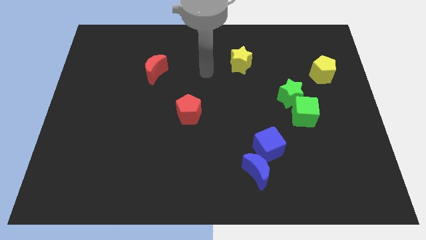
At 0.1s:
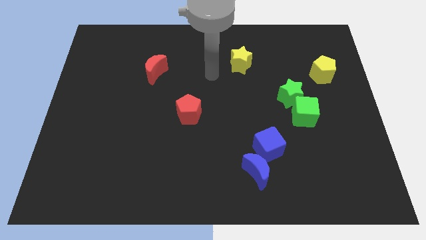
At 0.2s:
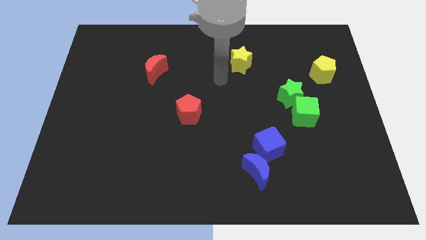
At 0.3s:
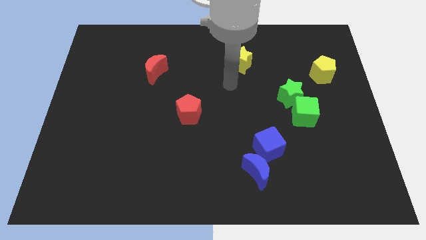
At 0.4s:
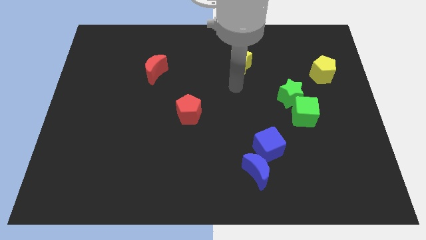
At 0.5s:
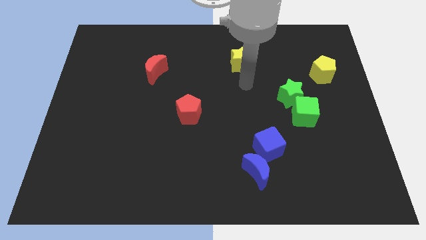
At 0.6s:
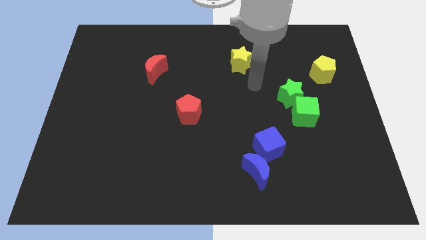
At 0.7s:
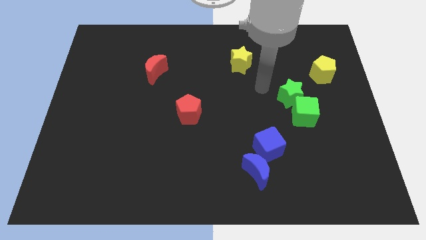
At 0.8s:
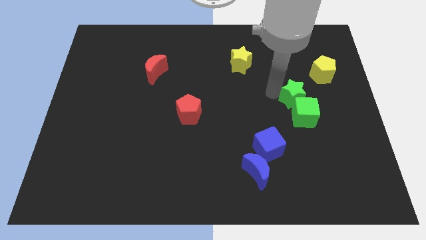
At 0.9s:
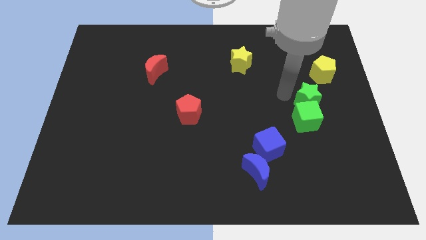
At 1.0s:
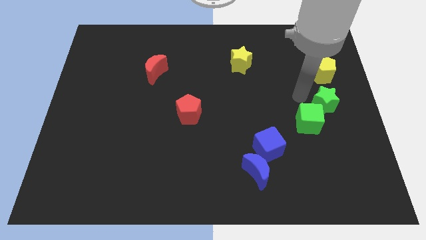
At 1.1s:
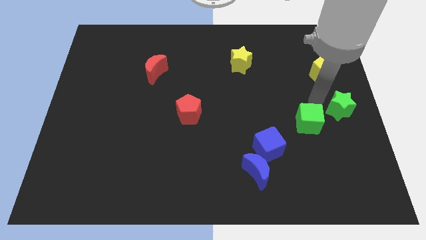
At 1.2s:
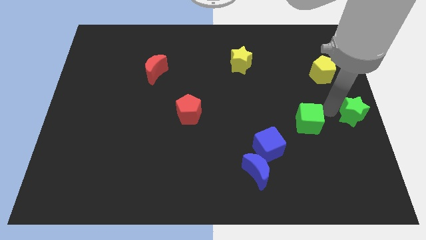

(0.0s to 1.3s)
separate the green cube from the green star

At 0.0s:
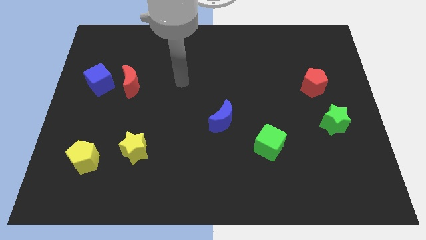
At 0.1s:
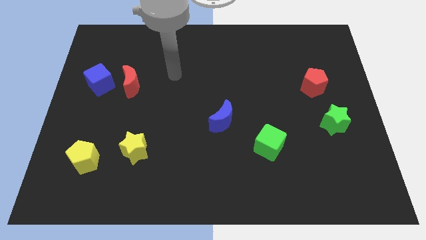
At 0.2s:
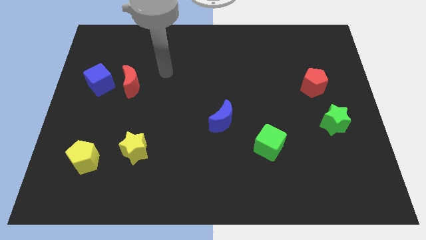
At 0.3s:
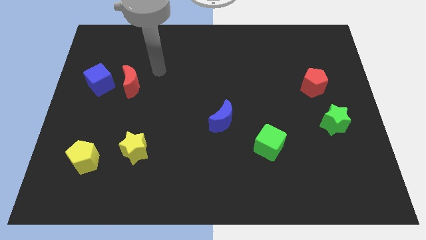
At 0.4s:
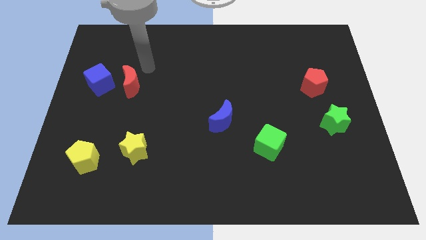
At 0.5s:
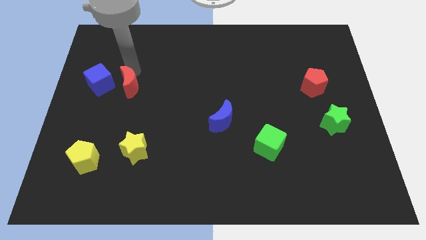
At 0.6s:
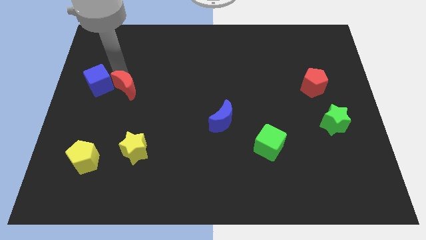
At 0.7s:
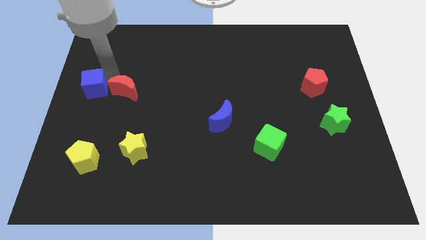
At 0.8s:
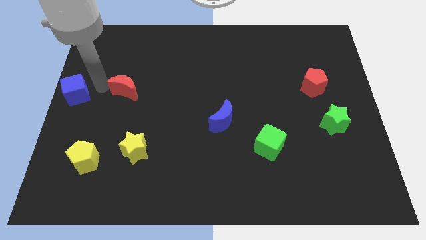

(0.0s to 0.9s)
pull the red moon apart from the blue cube

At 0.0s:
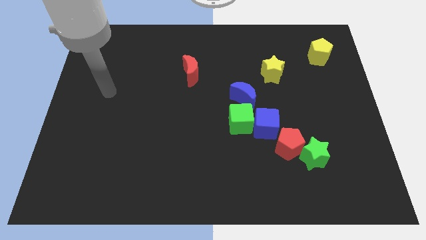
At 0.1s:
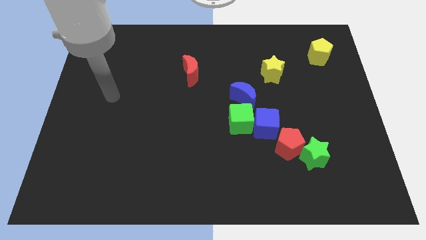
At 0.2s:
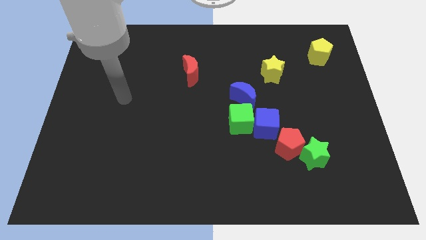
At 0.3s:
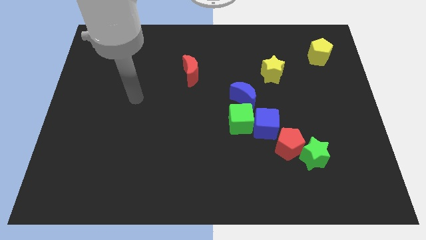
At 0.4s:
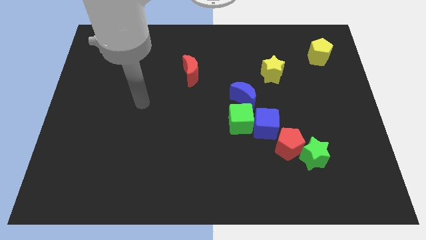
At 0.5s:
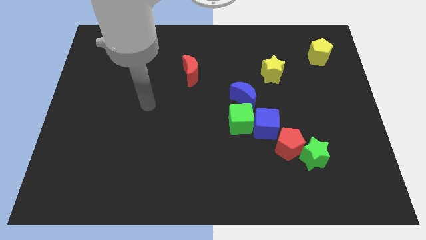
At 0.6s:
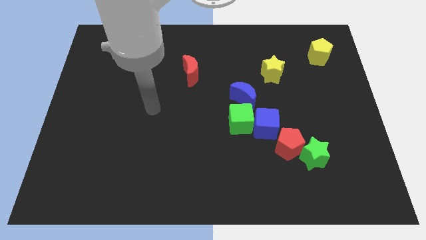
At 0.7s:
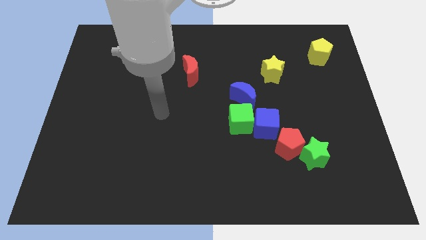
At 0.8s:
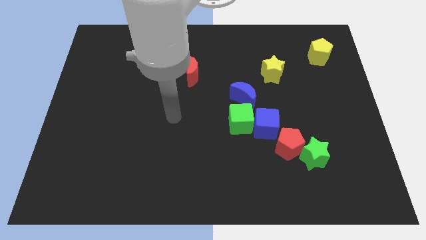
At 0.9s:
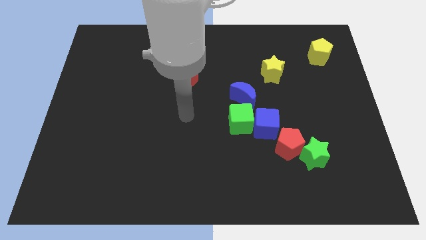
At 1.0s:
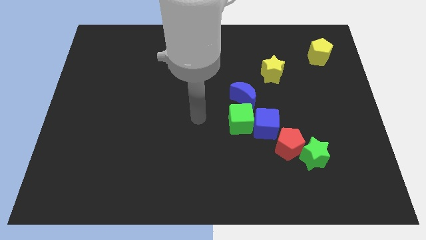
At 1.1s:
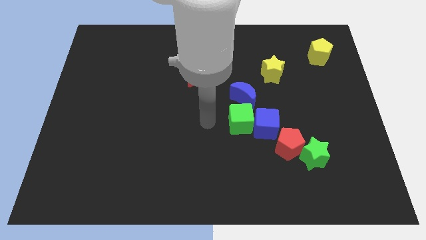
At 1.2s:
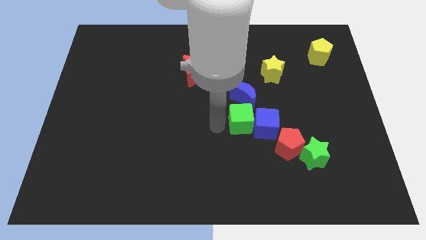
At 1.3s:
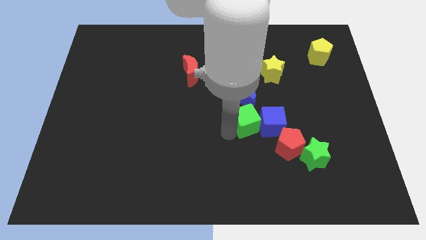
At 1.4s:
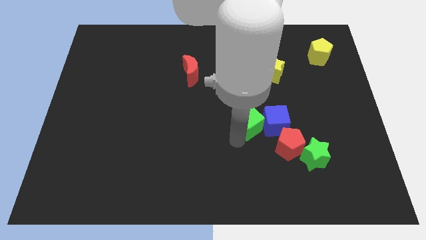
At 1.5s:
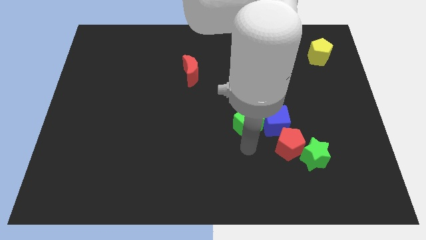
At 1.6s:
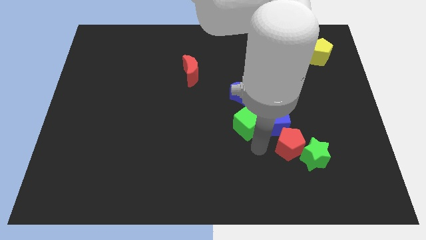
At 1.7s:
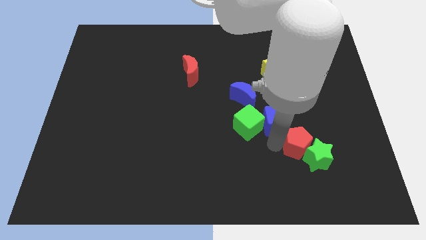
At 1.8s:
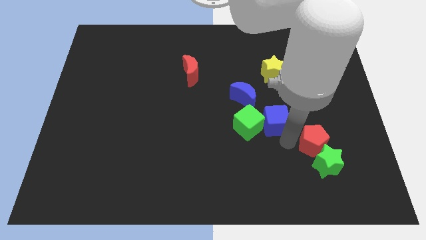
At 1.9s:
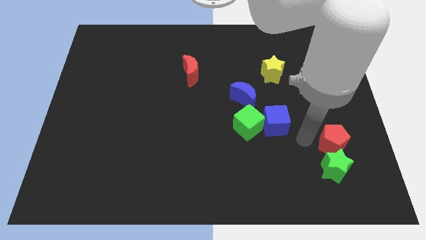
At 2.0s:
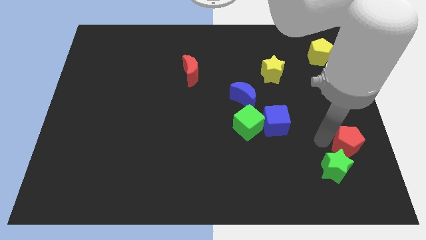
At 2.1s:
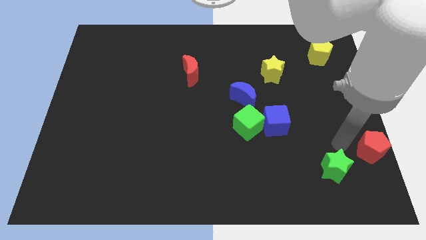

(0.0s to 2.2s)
separate the green star from the red pentagon

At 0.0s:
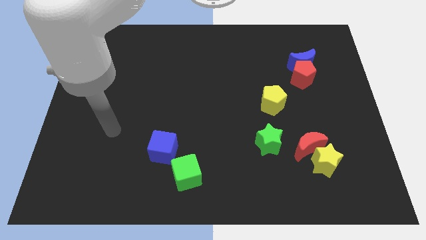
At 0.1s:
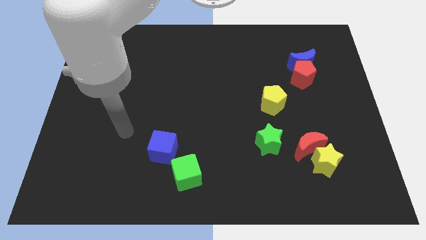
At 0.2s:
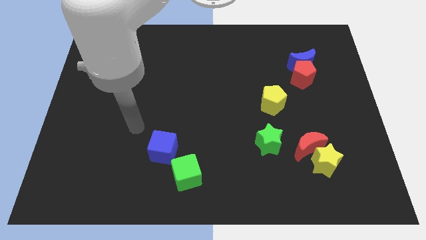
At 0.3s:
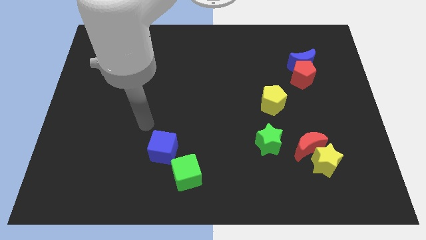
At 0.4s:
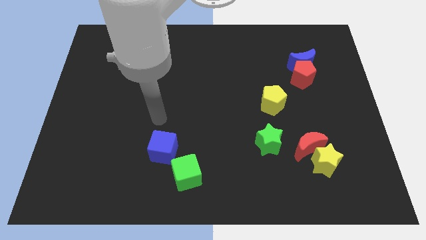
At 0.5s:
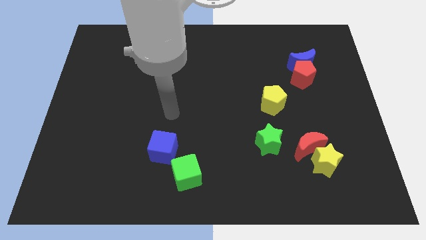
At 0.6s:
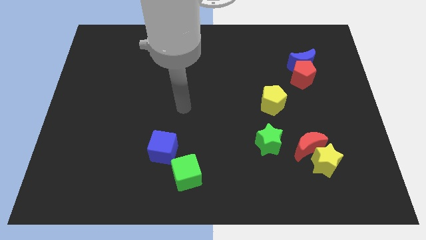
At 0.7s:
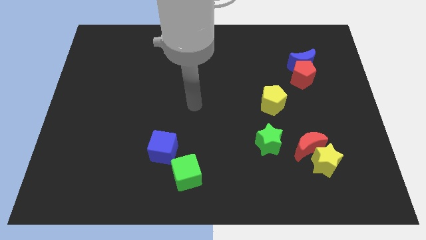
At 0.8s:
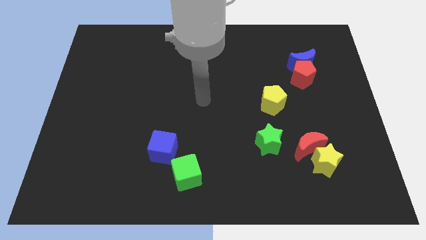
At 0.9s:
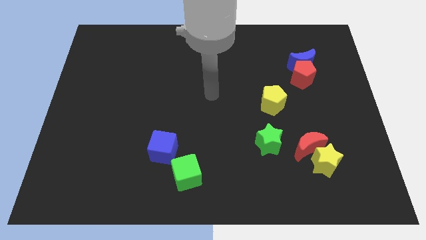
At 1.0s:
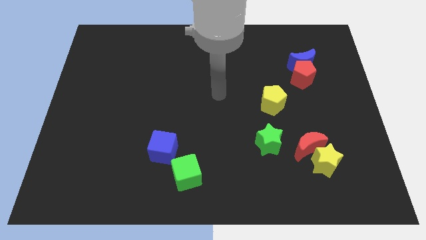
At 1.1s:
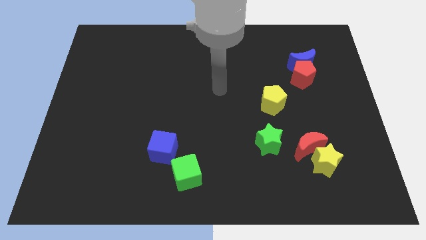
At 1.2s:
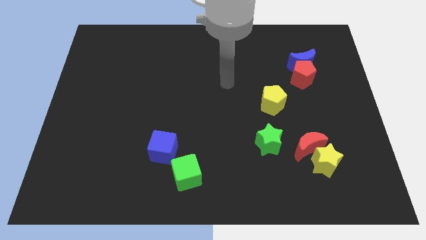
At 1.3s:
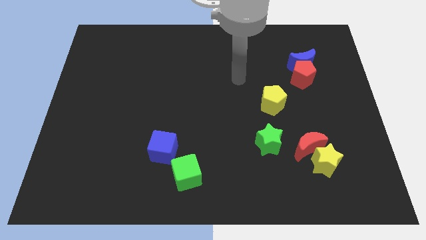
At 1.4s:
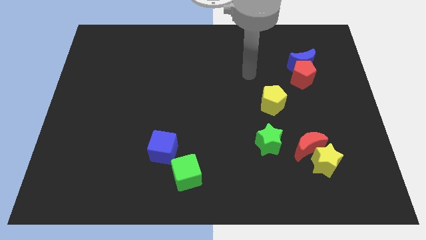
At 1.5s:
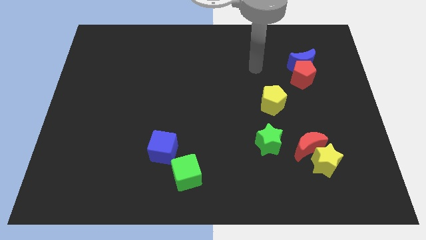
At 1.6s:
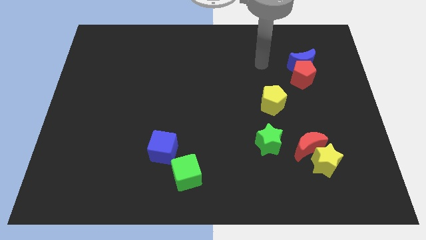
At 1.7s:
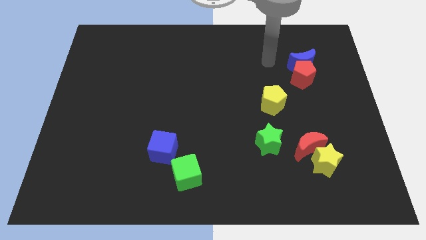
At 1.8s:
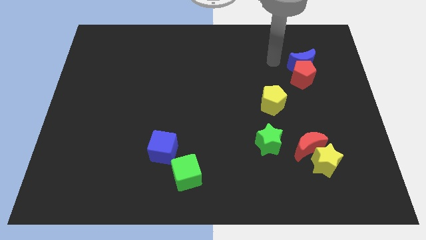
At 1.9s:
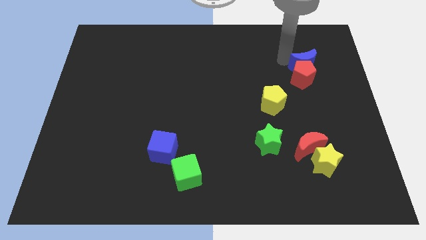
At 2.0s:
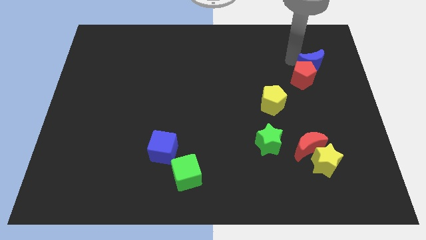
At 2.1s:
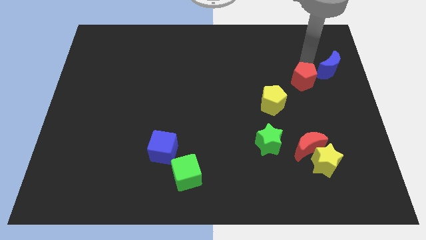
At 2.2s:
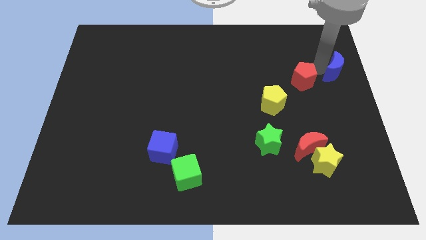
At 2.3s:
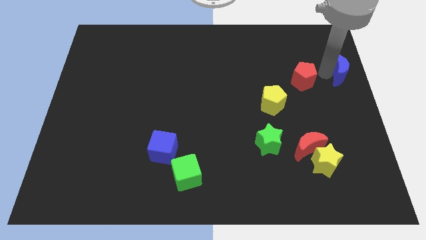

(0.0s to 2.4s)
move the red pentagon away from the blue moon

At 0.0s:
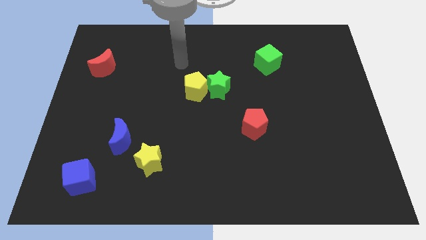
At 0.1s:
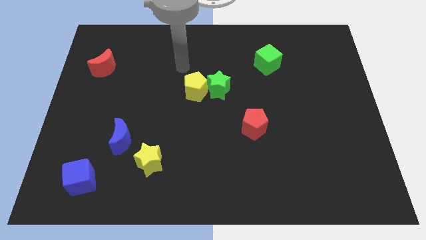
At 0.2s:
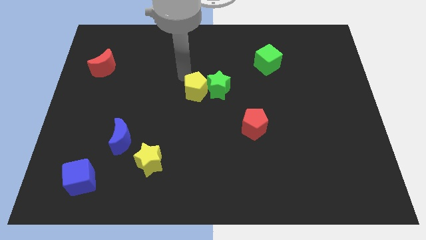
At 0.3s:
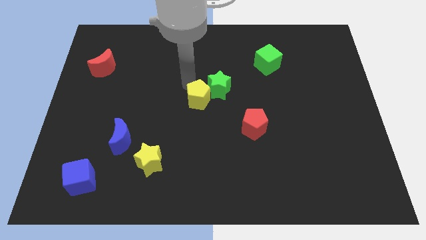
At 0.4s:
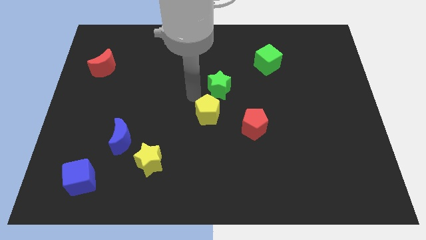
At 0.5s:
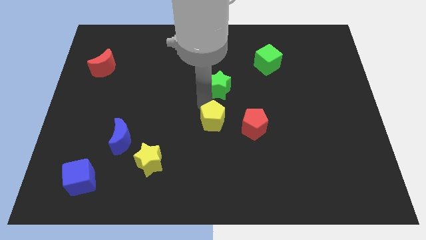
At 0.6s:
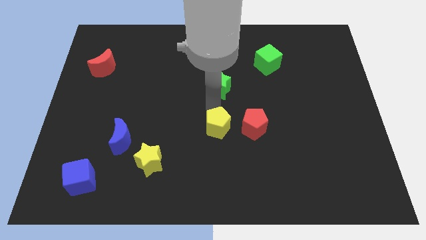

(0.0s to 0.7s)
pull the green star apart from the yellow pentagon

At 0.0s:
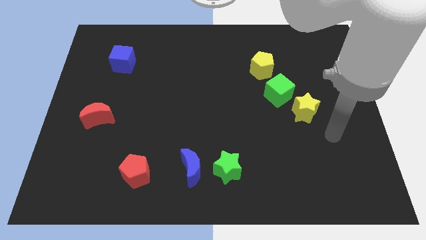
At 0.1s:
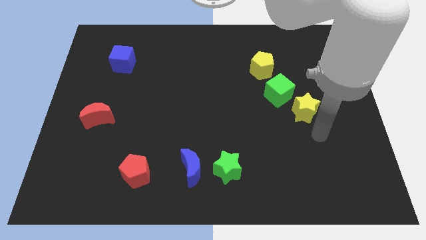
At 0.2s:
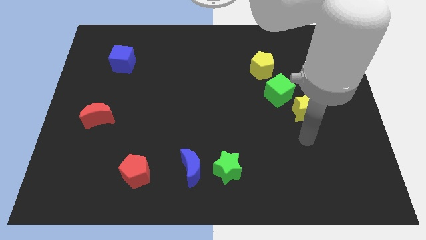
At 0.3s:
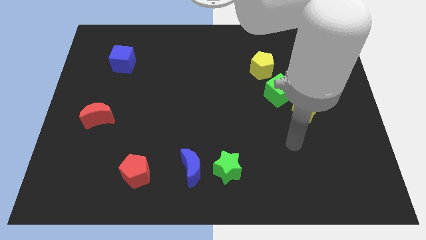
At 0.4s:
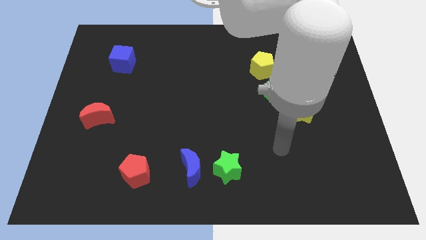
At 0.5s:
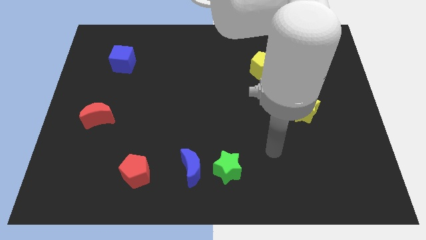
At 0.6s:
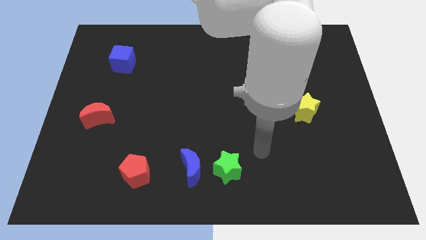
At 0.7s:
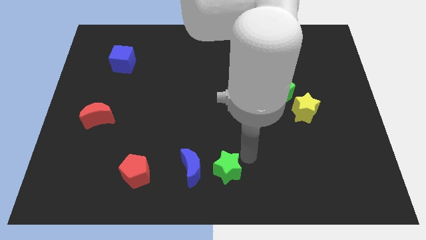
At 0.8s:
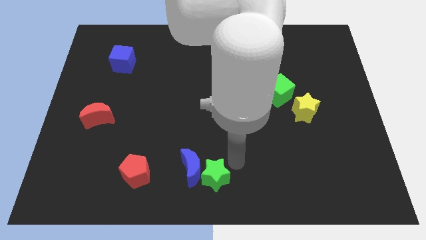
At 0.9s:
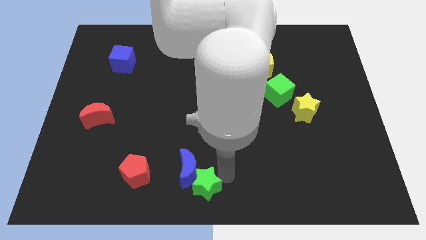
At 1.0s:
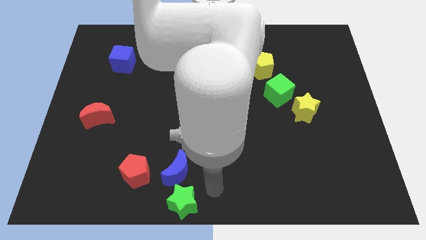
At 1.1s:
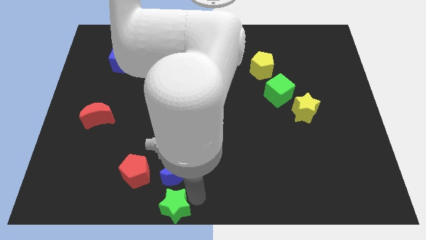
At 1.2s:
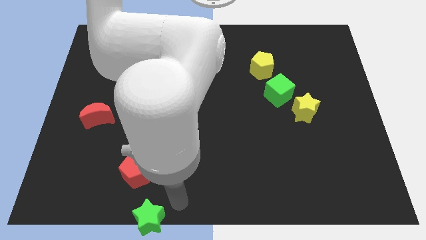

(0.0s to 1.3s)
move the blue moon away from the green star

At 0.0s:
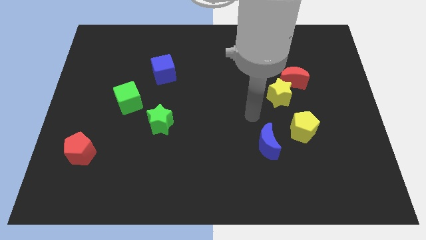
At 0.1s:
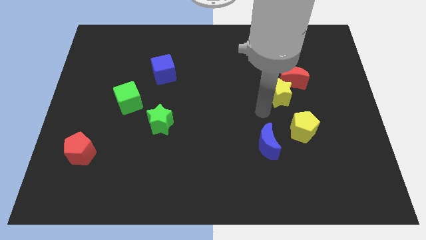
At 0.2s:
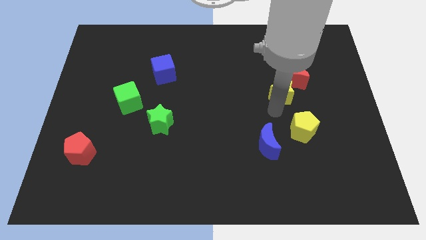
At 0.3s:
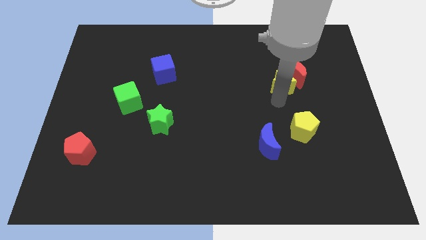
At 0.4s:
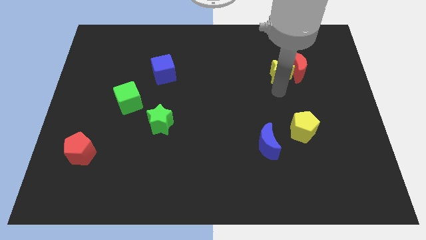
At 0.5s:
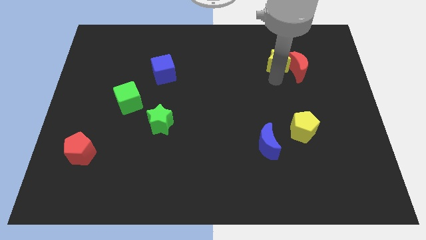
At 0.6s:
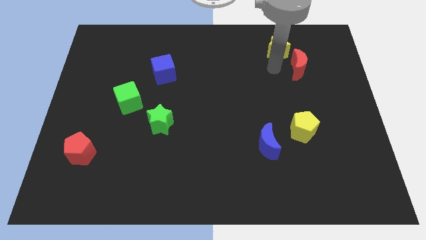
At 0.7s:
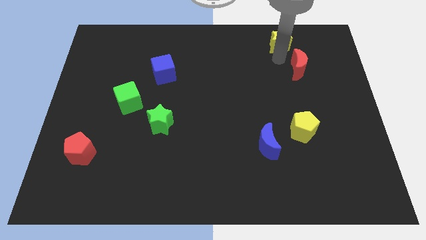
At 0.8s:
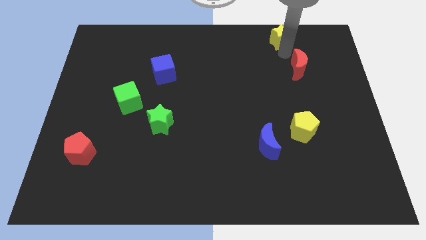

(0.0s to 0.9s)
separate the red moon from the yellow star
